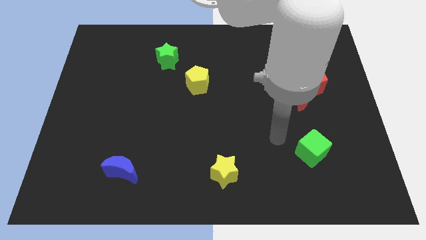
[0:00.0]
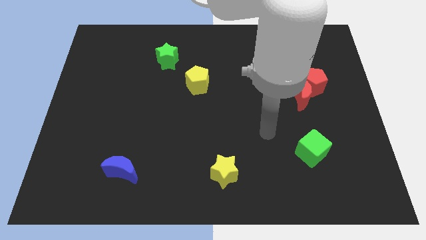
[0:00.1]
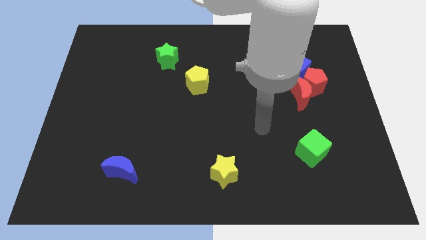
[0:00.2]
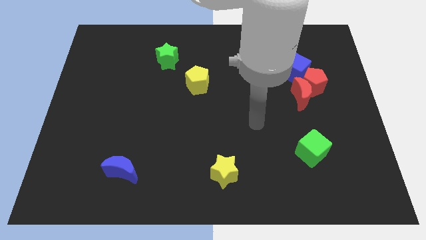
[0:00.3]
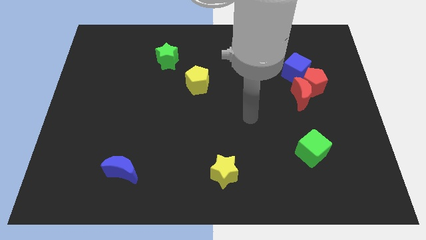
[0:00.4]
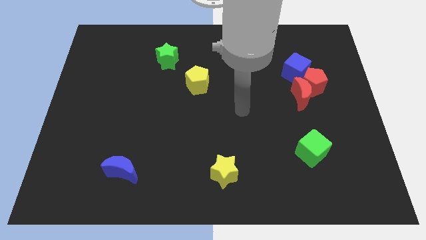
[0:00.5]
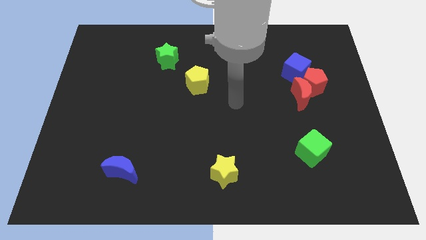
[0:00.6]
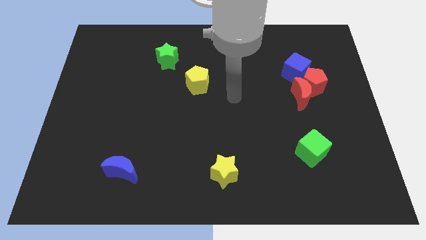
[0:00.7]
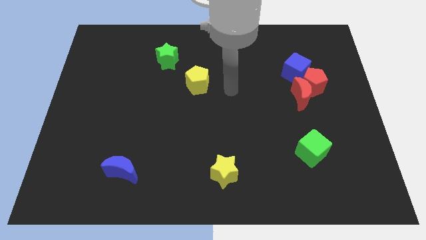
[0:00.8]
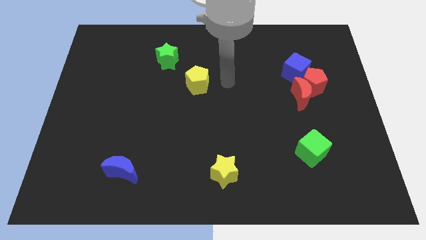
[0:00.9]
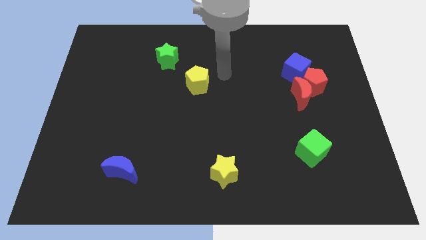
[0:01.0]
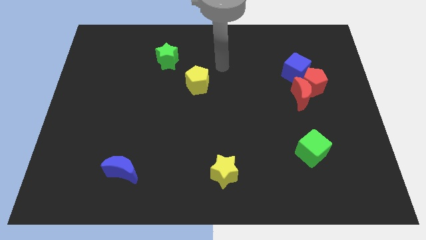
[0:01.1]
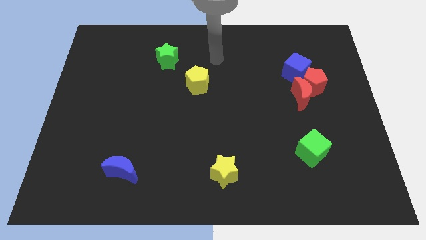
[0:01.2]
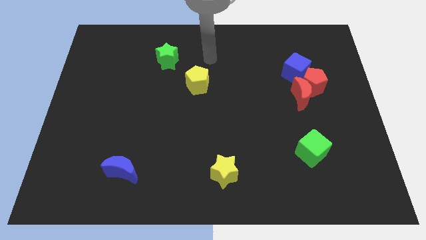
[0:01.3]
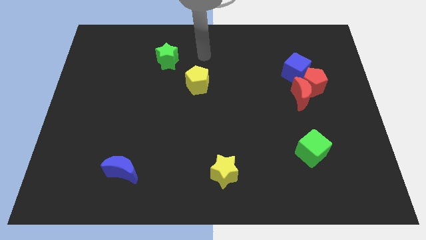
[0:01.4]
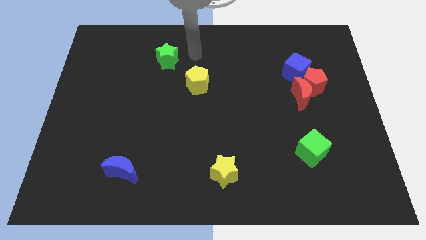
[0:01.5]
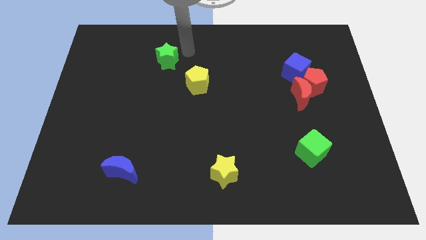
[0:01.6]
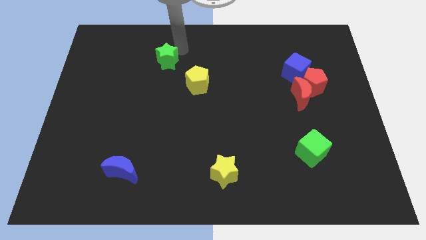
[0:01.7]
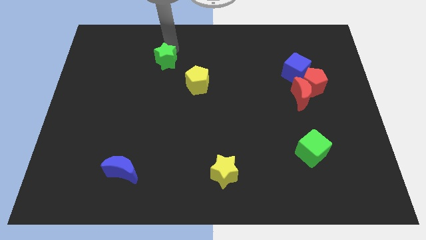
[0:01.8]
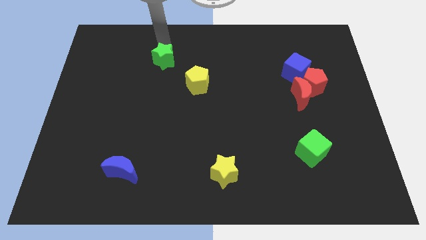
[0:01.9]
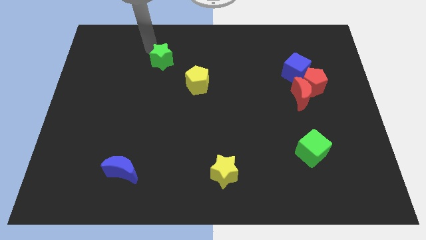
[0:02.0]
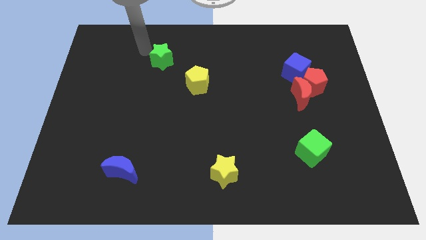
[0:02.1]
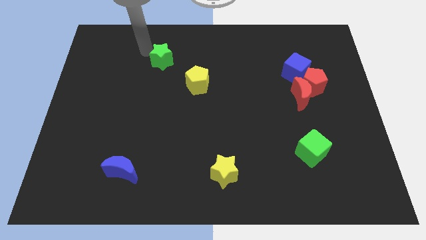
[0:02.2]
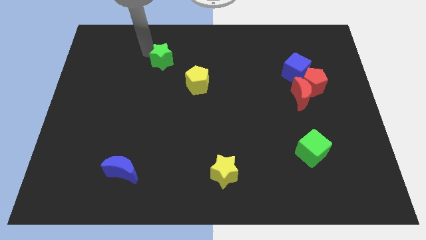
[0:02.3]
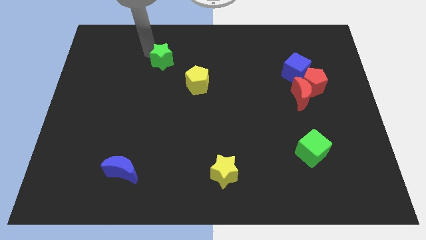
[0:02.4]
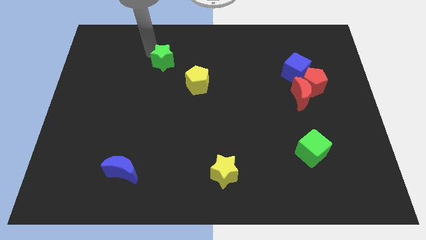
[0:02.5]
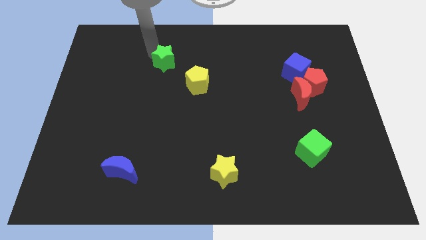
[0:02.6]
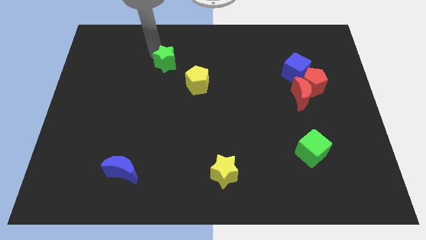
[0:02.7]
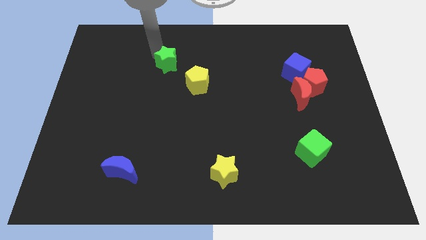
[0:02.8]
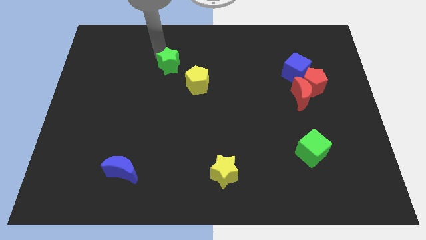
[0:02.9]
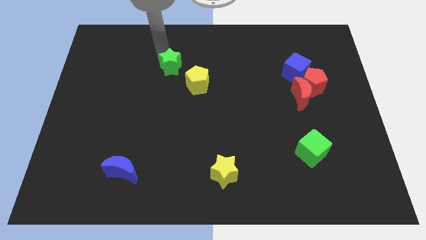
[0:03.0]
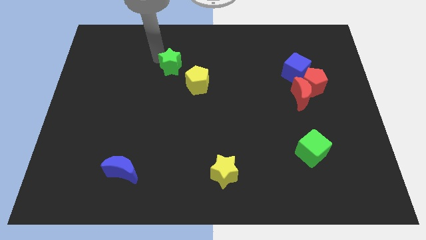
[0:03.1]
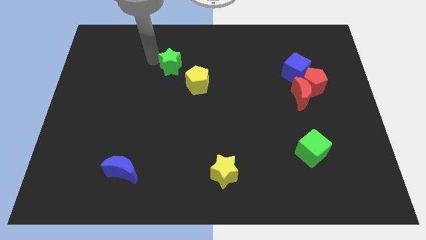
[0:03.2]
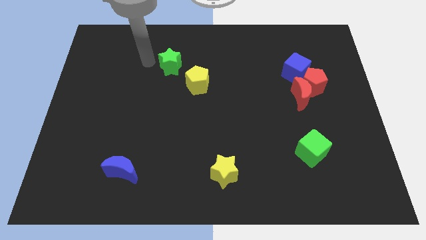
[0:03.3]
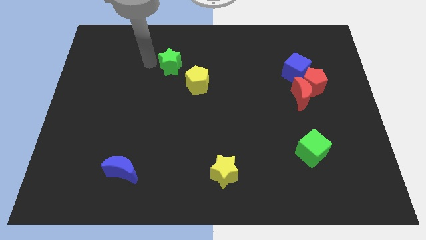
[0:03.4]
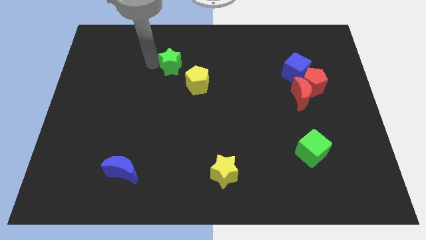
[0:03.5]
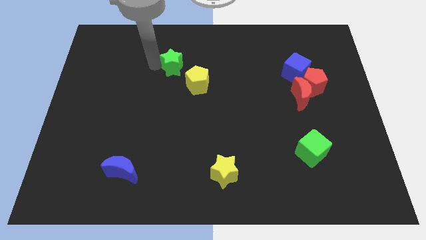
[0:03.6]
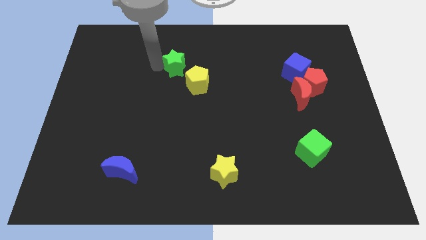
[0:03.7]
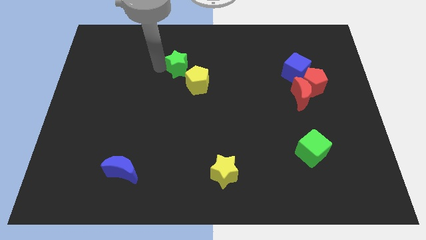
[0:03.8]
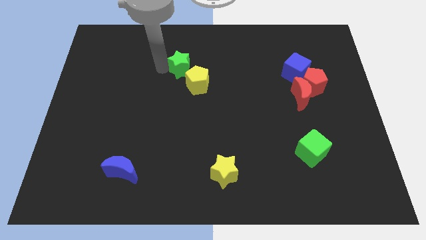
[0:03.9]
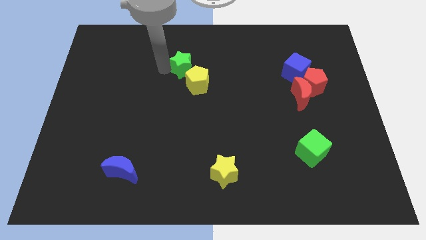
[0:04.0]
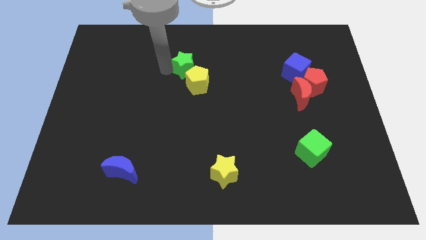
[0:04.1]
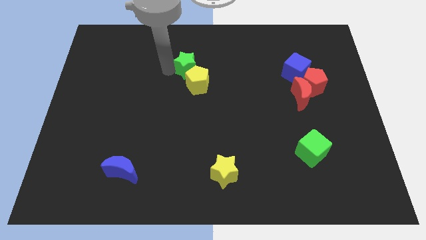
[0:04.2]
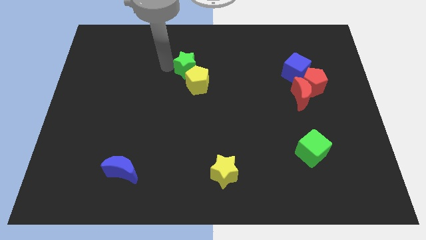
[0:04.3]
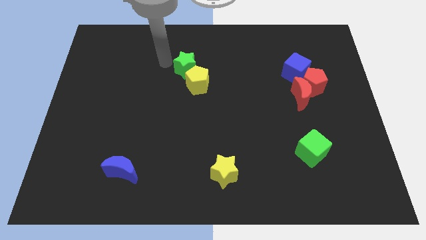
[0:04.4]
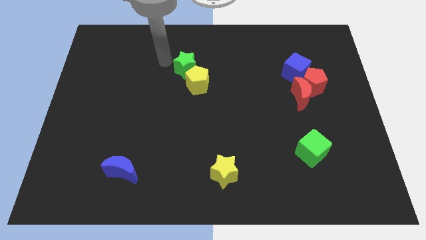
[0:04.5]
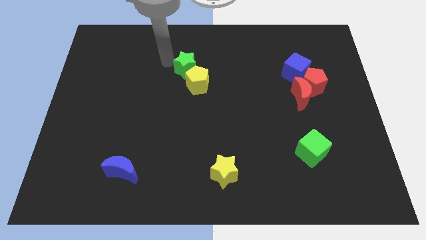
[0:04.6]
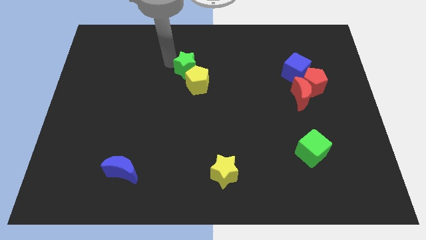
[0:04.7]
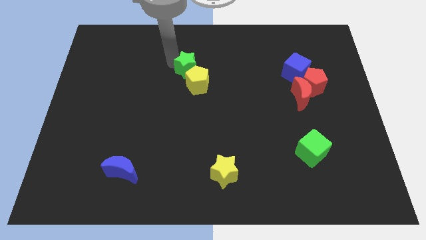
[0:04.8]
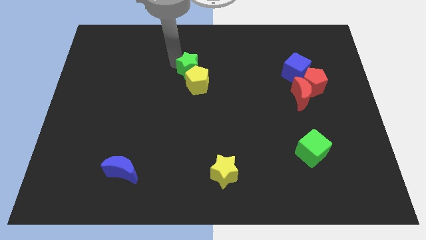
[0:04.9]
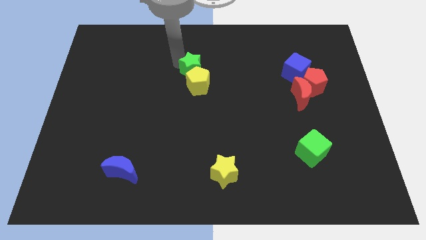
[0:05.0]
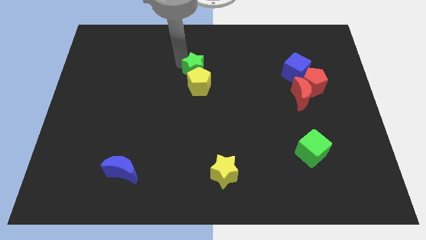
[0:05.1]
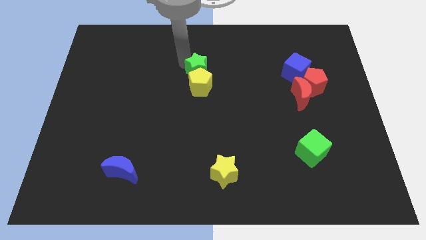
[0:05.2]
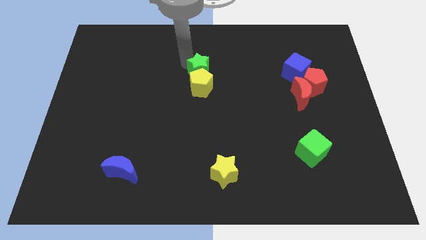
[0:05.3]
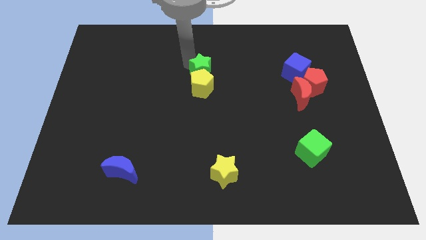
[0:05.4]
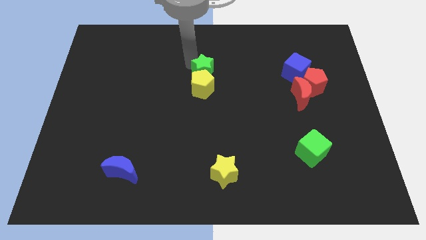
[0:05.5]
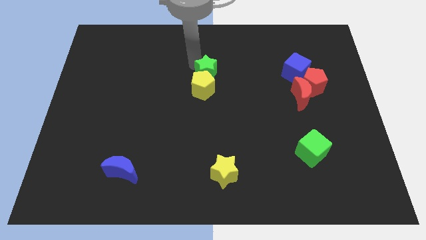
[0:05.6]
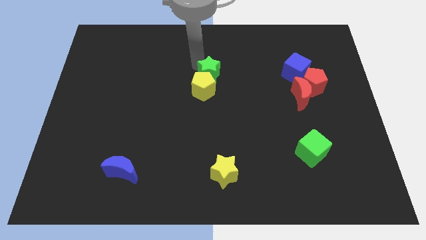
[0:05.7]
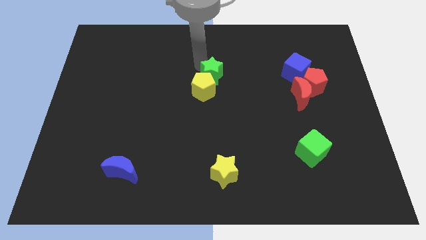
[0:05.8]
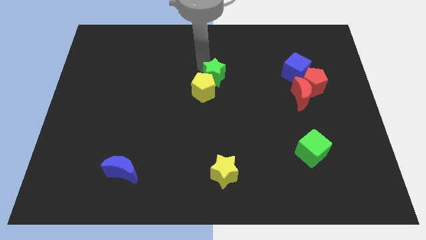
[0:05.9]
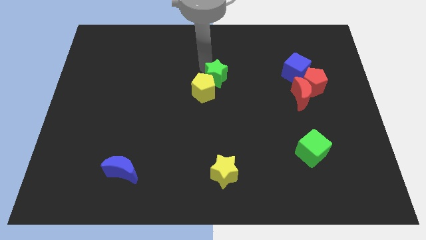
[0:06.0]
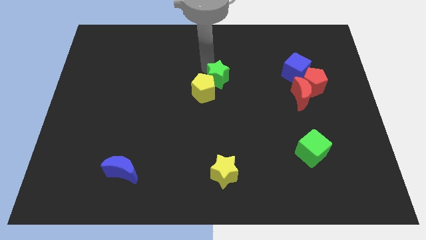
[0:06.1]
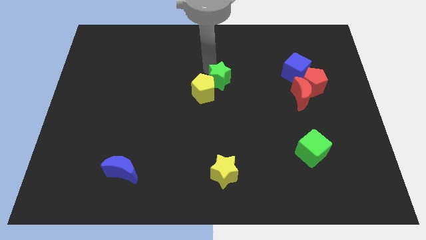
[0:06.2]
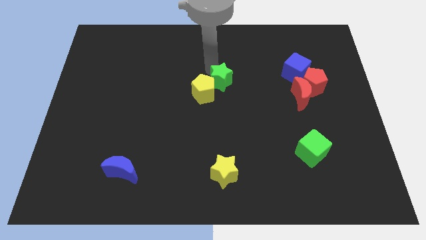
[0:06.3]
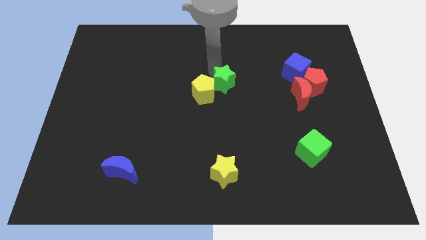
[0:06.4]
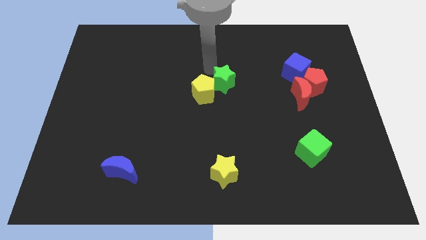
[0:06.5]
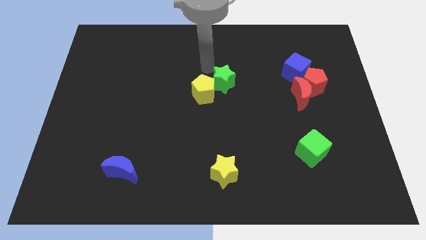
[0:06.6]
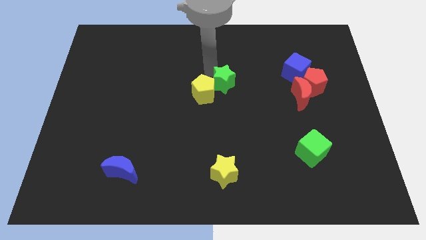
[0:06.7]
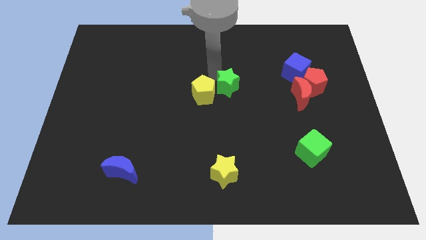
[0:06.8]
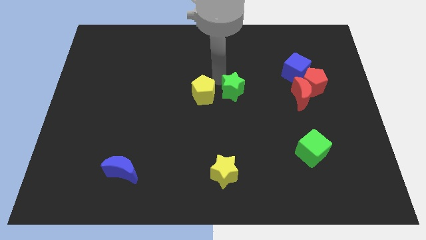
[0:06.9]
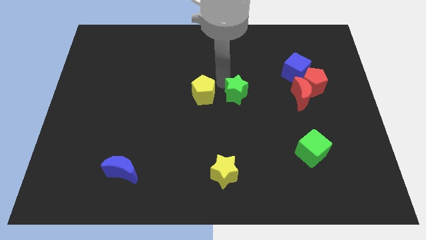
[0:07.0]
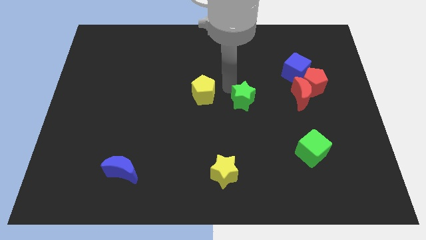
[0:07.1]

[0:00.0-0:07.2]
move the green star down and then to the right

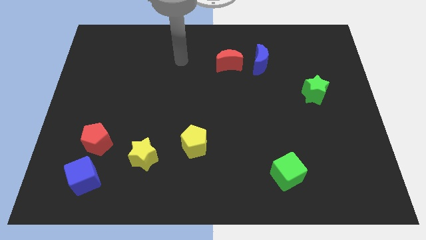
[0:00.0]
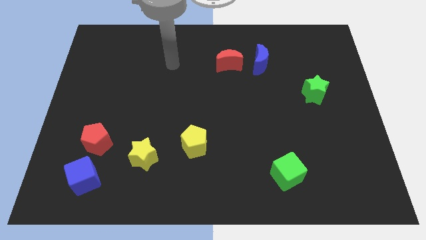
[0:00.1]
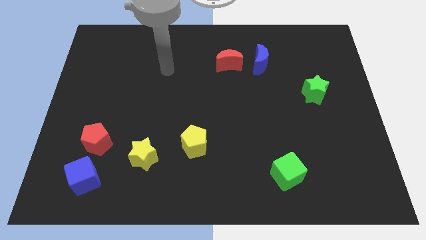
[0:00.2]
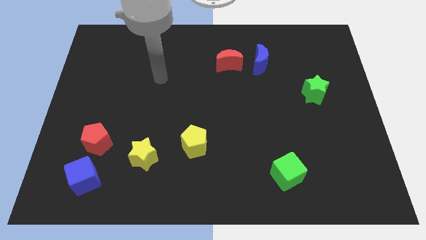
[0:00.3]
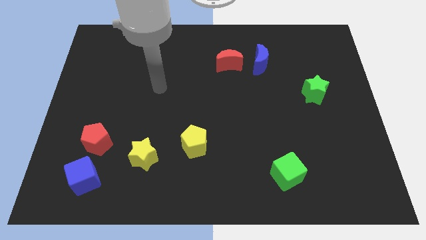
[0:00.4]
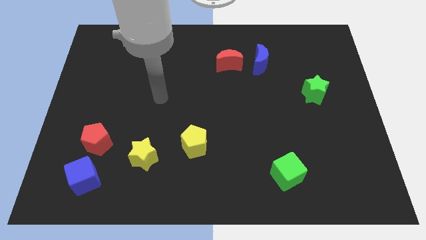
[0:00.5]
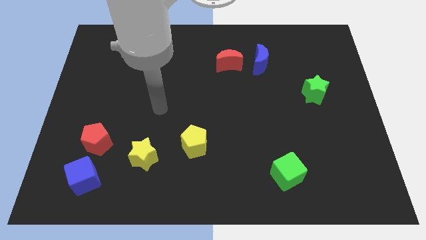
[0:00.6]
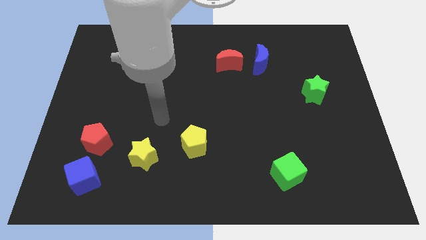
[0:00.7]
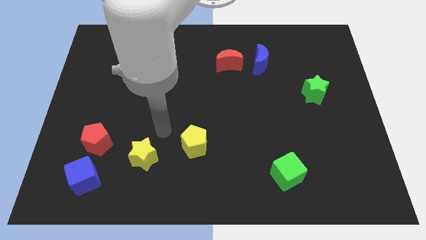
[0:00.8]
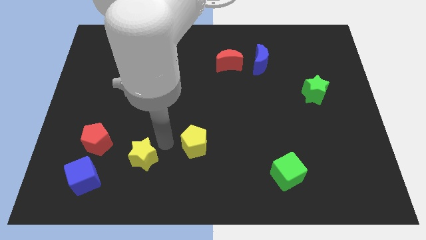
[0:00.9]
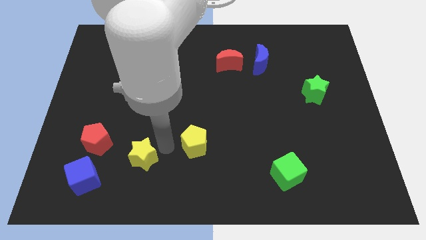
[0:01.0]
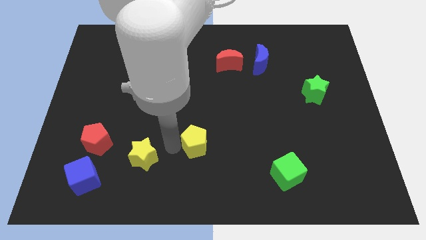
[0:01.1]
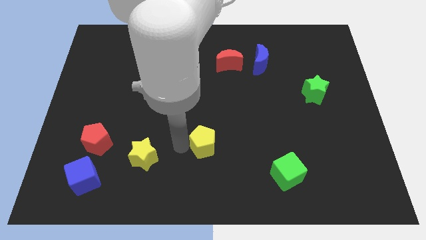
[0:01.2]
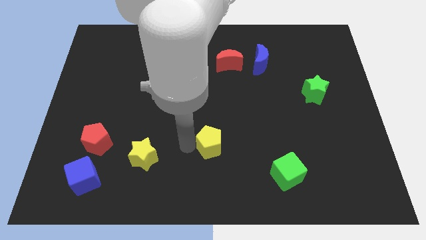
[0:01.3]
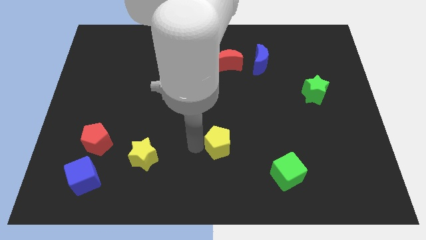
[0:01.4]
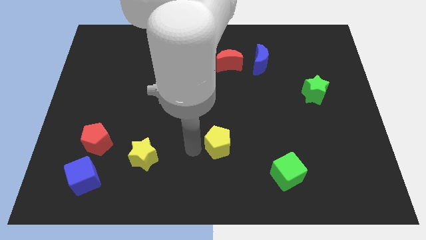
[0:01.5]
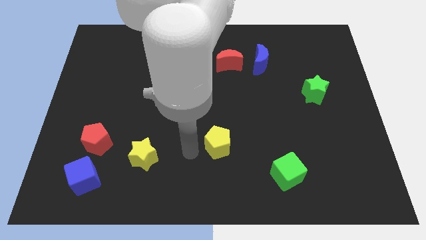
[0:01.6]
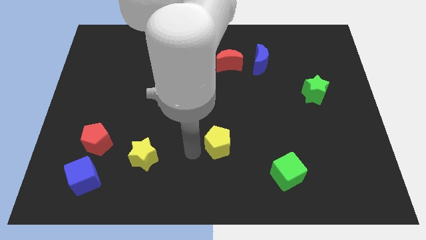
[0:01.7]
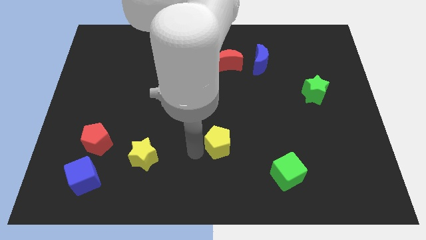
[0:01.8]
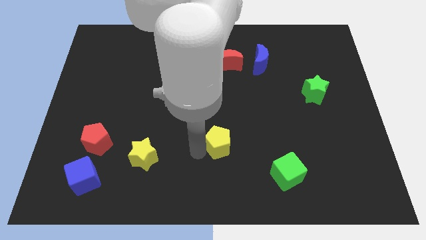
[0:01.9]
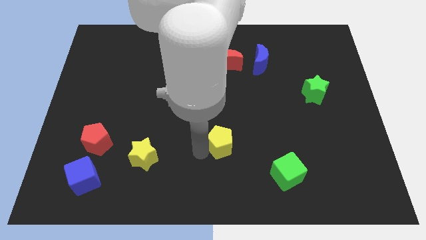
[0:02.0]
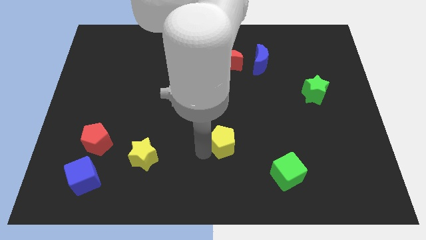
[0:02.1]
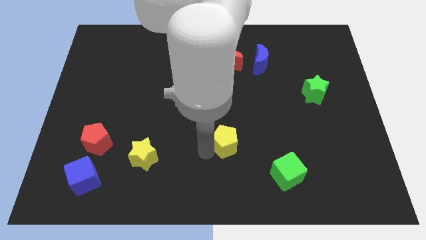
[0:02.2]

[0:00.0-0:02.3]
slightly push the yellow pentagon right
